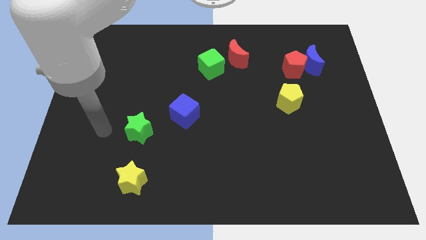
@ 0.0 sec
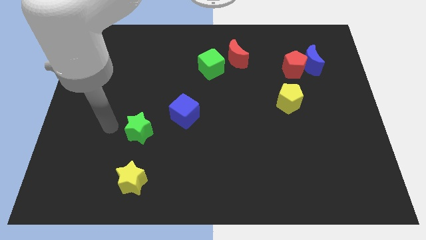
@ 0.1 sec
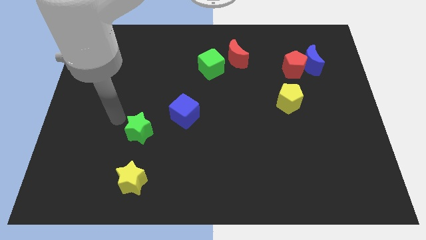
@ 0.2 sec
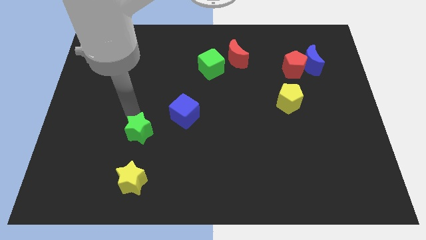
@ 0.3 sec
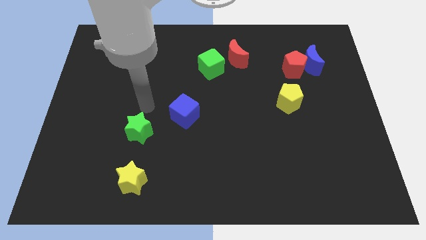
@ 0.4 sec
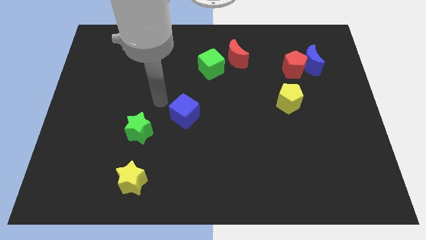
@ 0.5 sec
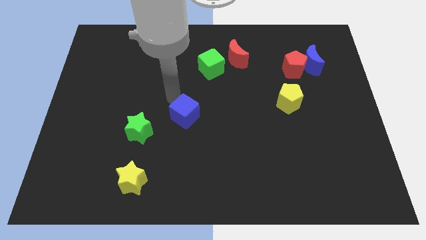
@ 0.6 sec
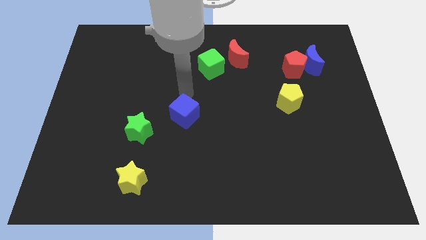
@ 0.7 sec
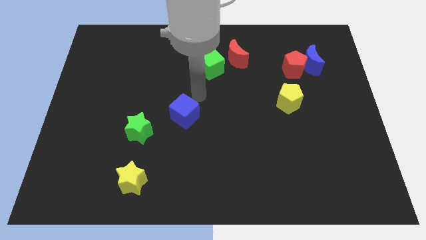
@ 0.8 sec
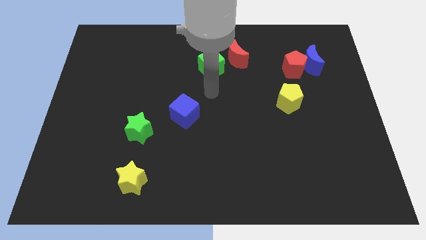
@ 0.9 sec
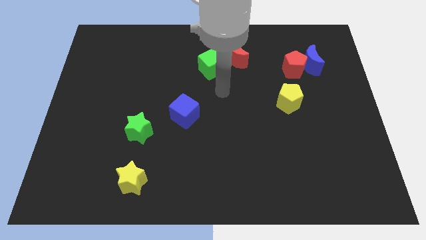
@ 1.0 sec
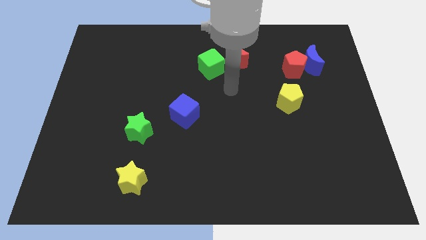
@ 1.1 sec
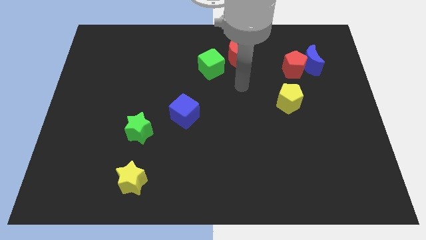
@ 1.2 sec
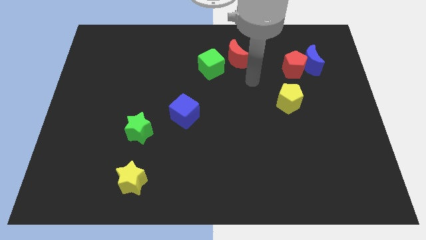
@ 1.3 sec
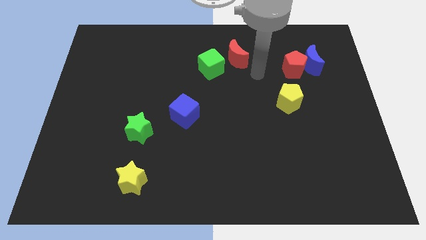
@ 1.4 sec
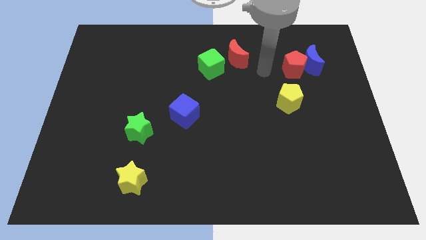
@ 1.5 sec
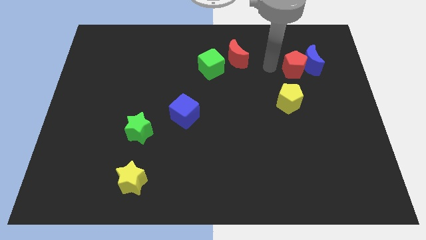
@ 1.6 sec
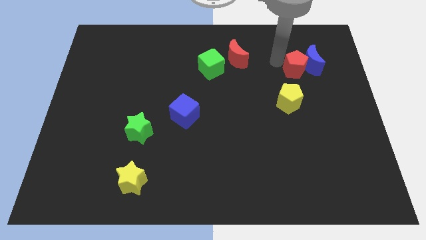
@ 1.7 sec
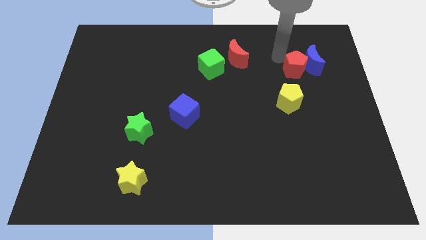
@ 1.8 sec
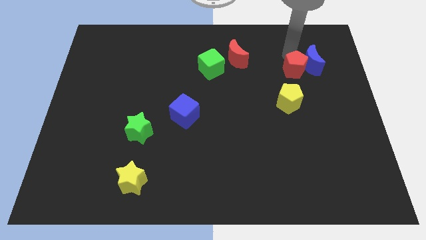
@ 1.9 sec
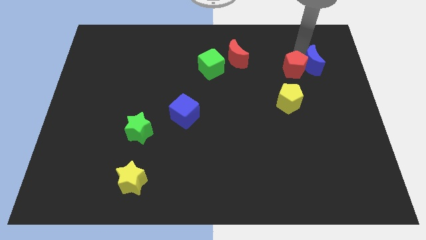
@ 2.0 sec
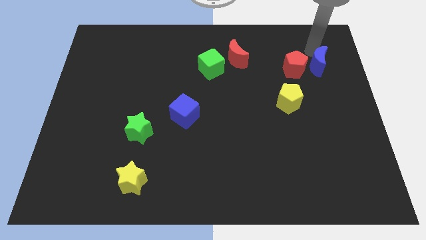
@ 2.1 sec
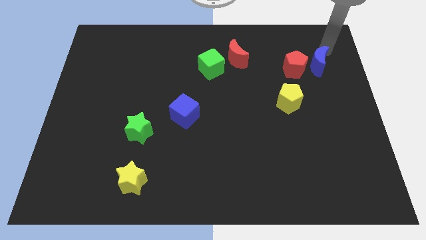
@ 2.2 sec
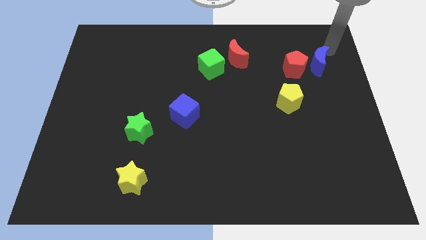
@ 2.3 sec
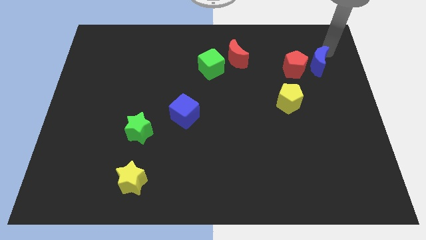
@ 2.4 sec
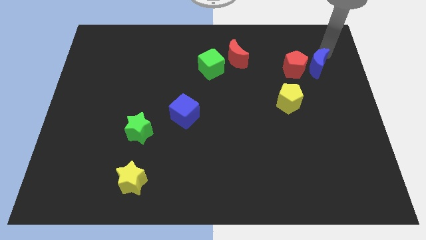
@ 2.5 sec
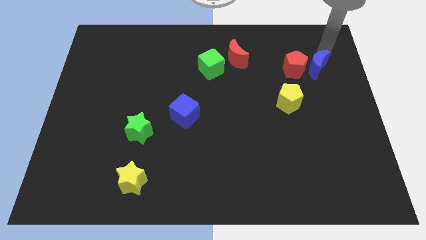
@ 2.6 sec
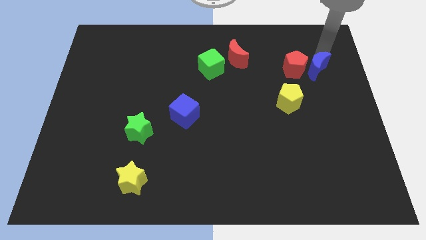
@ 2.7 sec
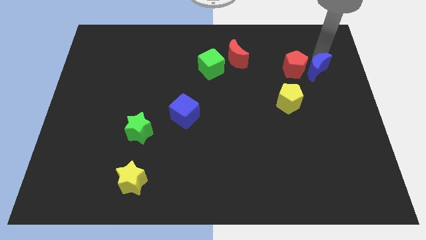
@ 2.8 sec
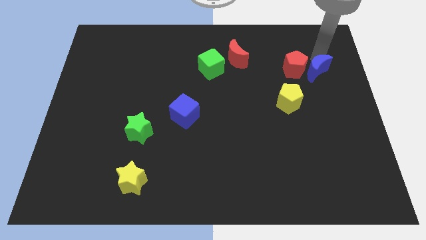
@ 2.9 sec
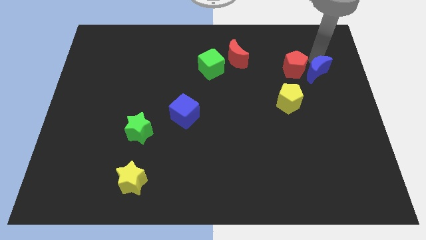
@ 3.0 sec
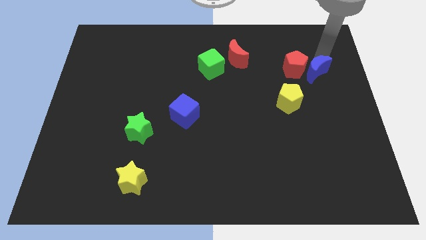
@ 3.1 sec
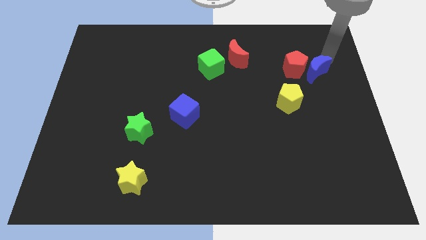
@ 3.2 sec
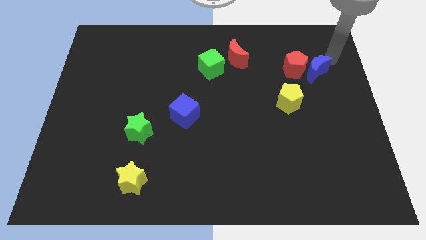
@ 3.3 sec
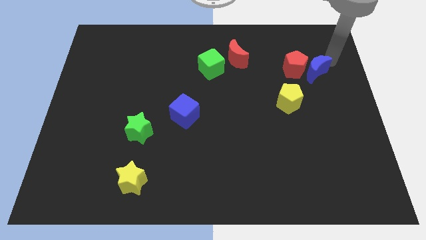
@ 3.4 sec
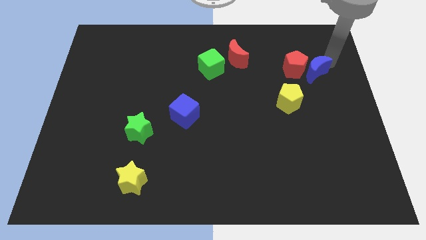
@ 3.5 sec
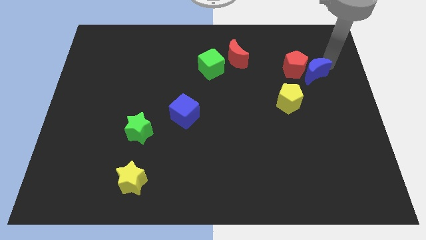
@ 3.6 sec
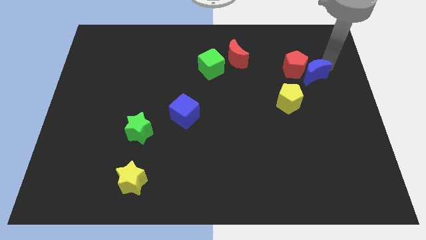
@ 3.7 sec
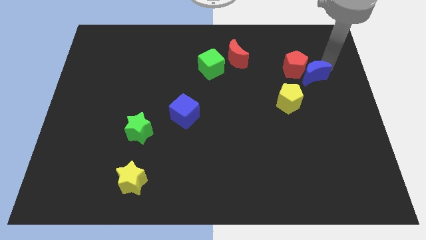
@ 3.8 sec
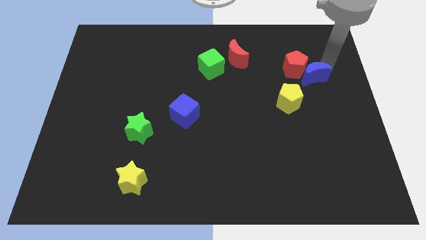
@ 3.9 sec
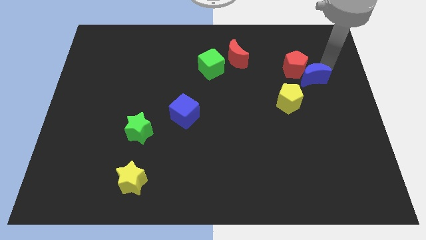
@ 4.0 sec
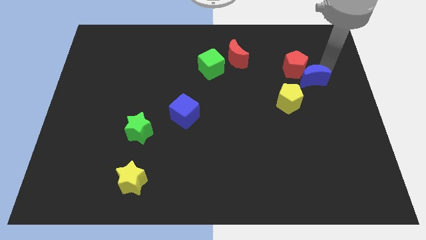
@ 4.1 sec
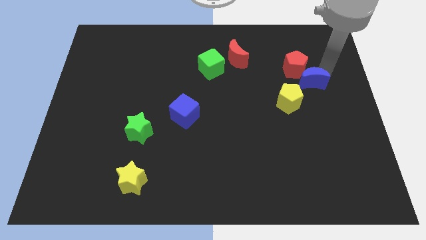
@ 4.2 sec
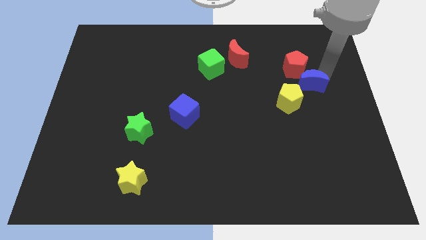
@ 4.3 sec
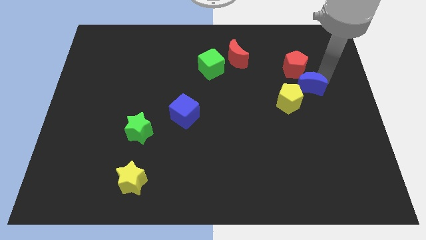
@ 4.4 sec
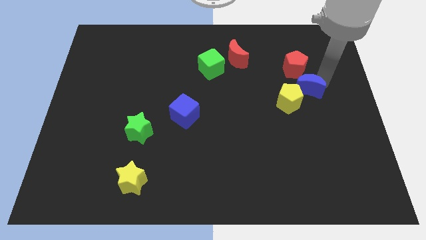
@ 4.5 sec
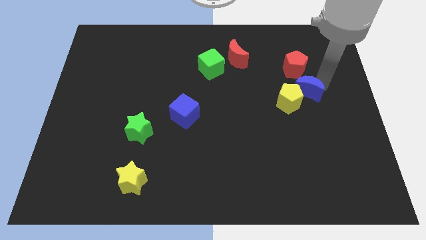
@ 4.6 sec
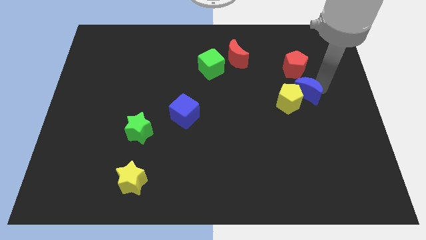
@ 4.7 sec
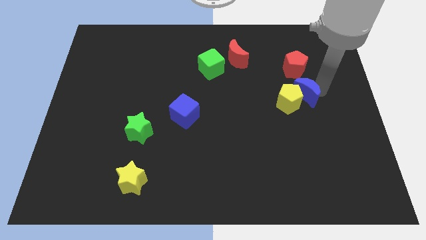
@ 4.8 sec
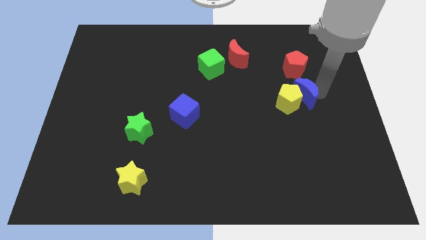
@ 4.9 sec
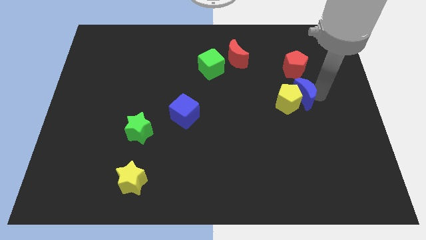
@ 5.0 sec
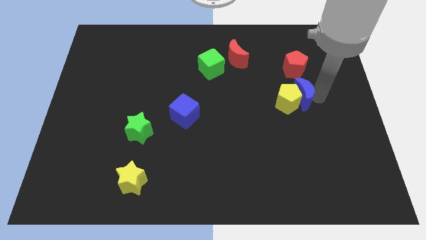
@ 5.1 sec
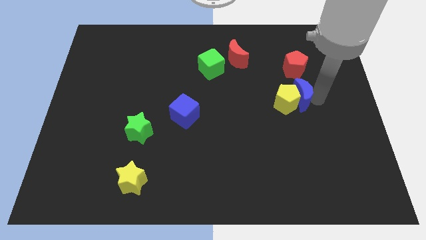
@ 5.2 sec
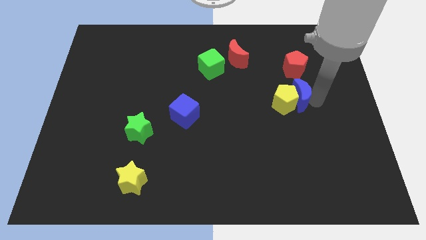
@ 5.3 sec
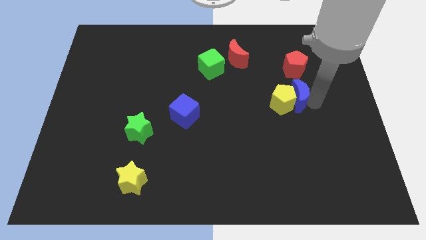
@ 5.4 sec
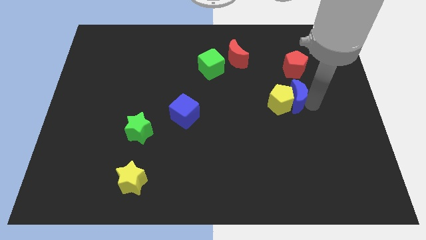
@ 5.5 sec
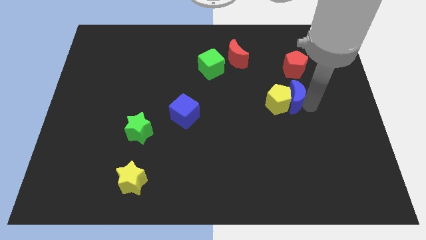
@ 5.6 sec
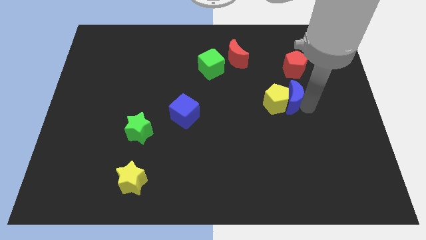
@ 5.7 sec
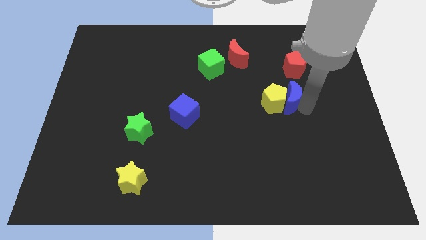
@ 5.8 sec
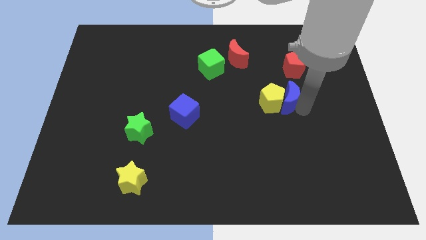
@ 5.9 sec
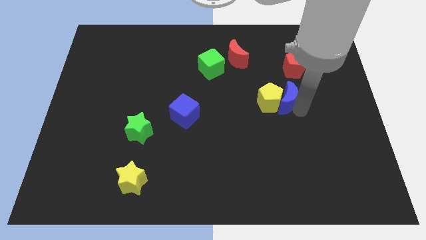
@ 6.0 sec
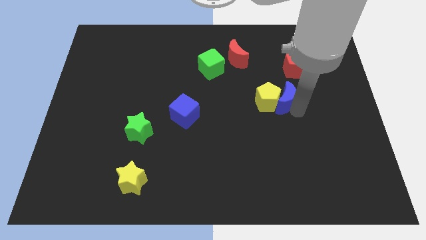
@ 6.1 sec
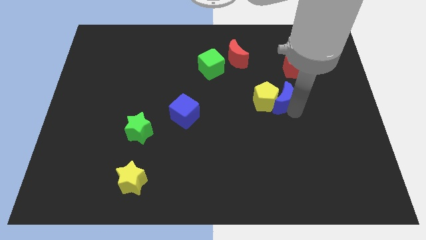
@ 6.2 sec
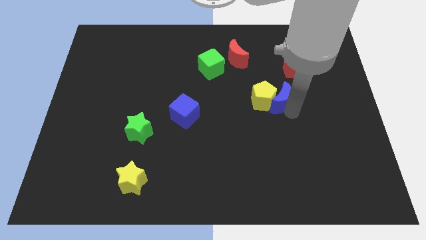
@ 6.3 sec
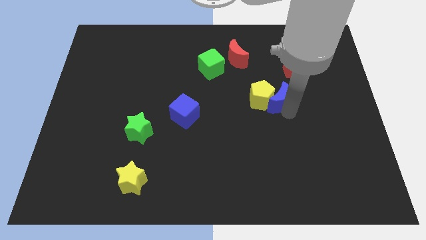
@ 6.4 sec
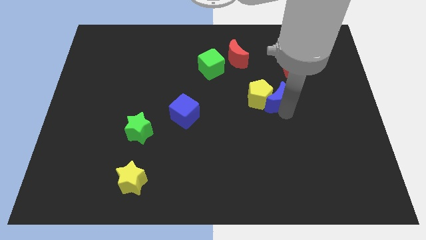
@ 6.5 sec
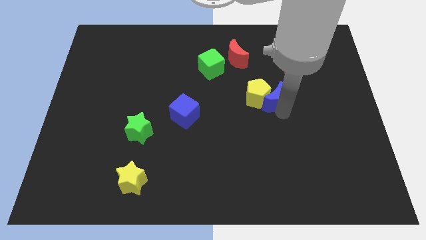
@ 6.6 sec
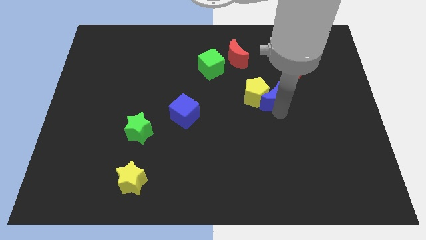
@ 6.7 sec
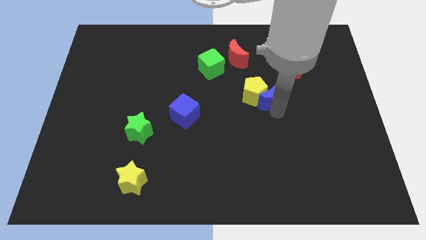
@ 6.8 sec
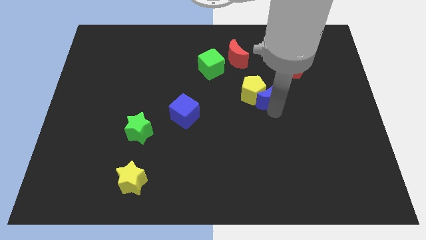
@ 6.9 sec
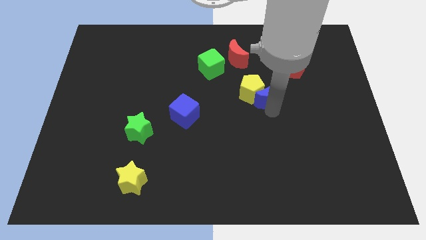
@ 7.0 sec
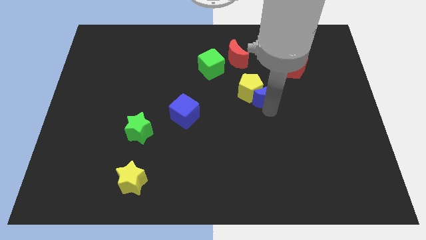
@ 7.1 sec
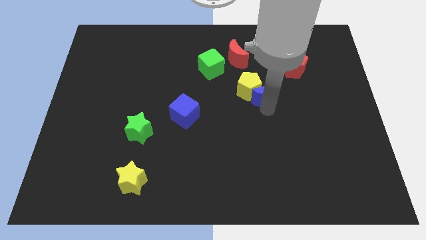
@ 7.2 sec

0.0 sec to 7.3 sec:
move the blue moon to the middle
